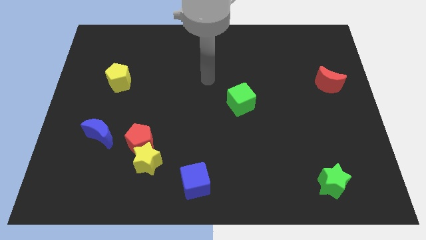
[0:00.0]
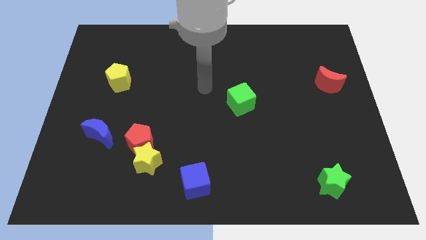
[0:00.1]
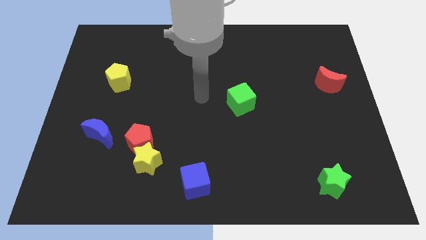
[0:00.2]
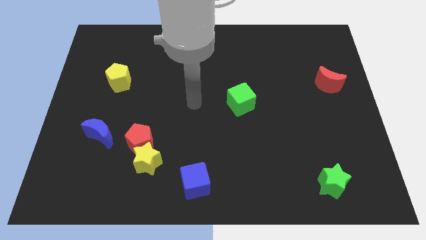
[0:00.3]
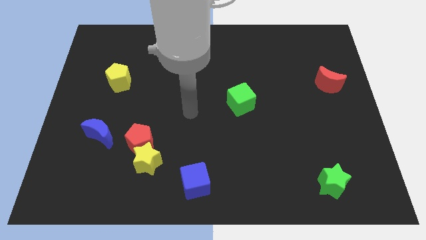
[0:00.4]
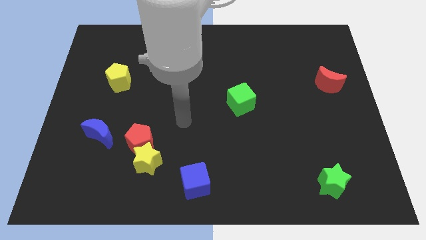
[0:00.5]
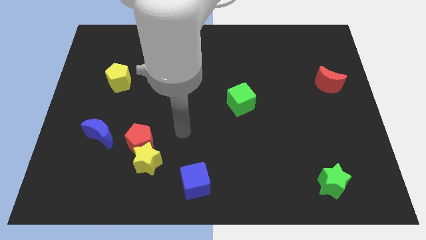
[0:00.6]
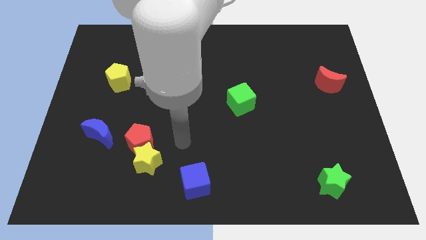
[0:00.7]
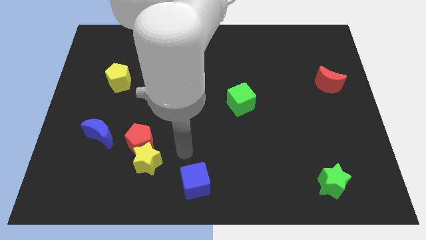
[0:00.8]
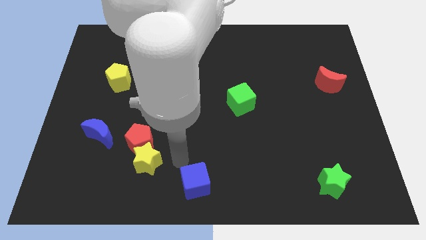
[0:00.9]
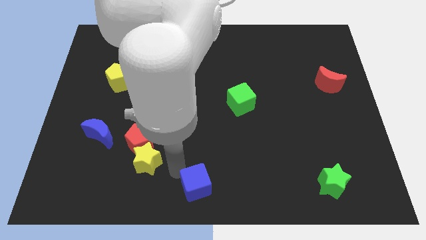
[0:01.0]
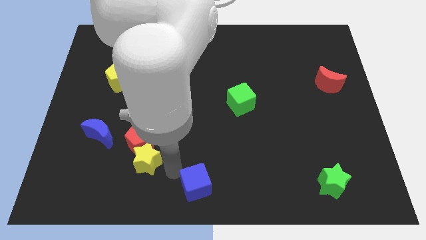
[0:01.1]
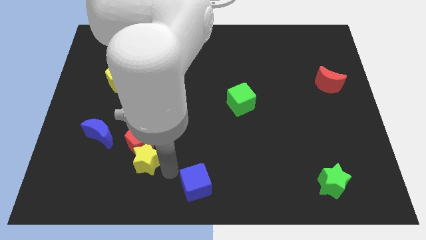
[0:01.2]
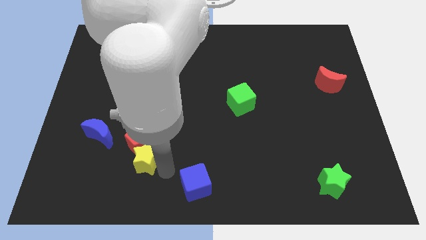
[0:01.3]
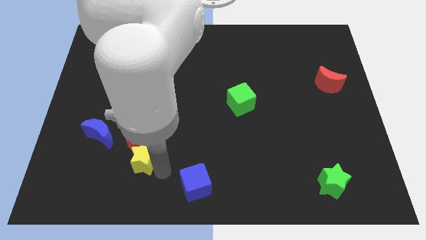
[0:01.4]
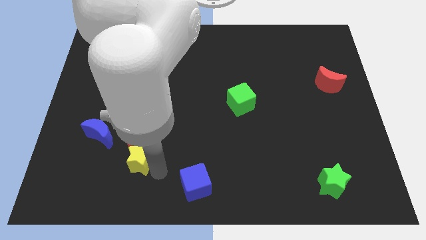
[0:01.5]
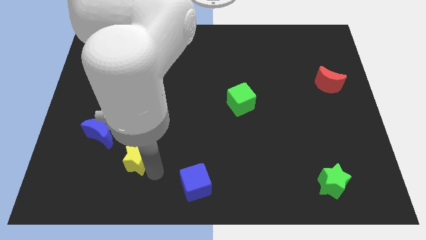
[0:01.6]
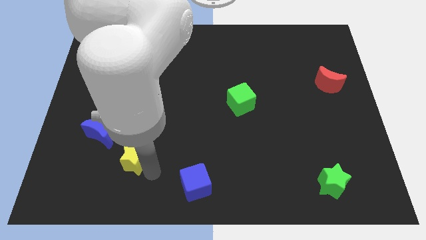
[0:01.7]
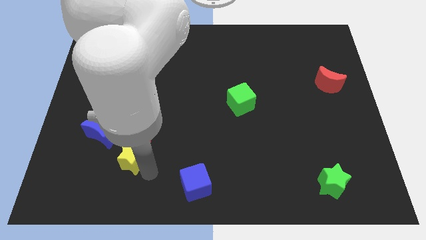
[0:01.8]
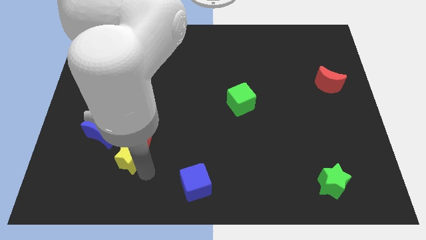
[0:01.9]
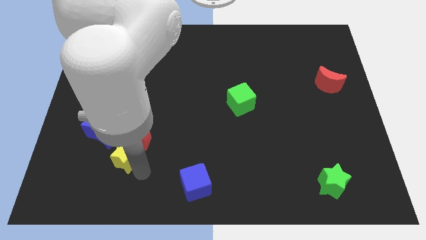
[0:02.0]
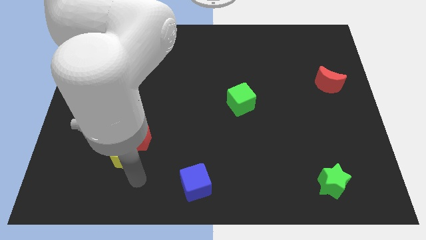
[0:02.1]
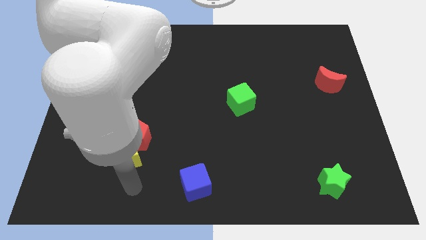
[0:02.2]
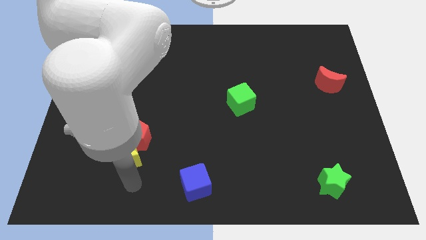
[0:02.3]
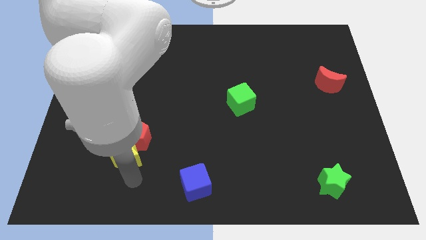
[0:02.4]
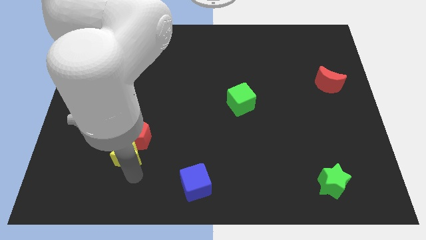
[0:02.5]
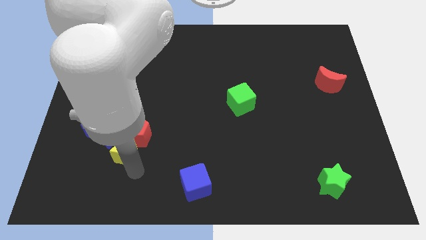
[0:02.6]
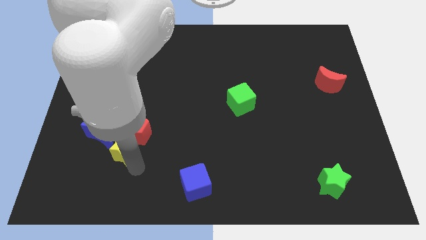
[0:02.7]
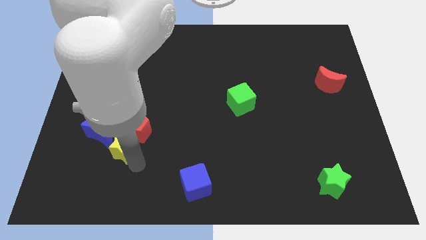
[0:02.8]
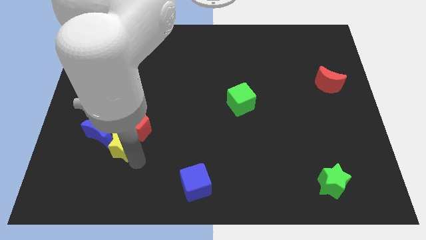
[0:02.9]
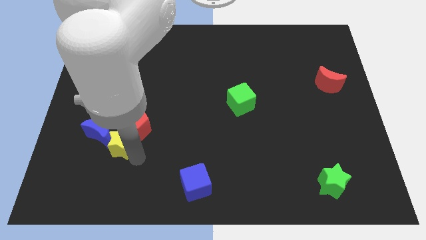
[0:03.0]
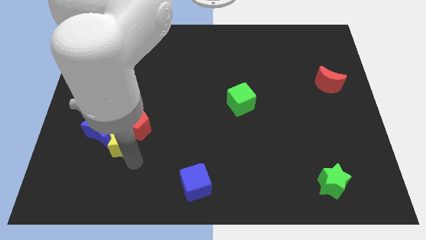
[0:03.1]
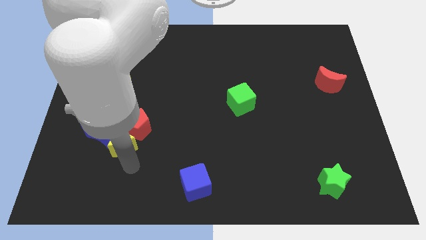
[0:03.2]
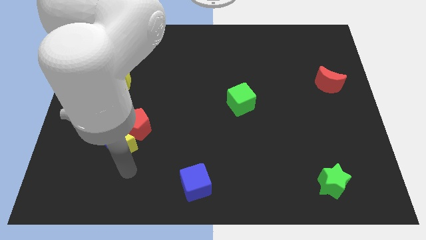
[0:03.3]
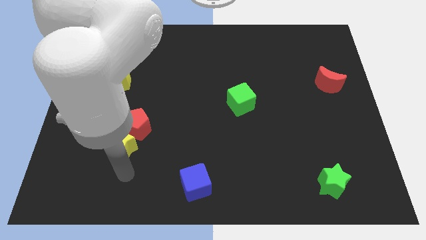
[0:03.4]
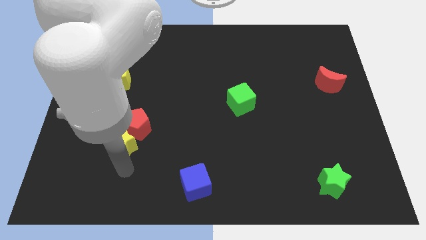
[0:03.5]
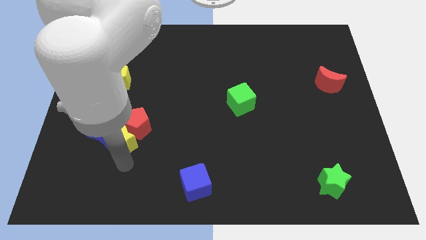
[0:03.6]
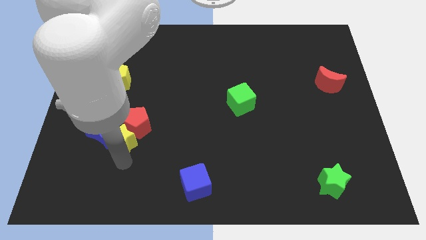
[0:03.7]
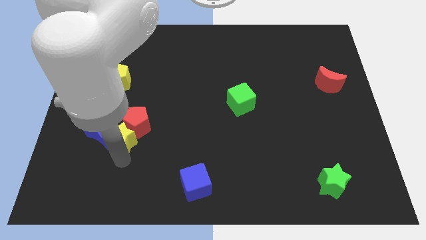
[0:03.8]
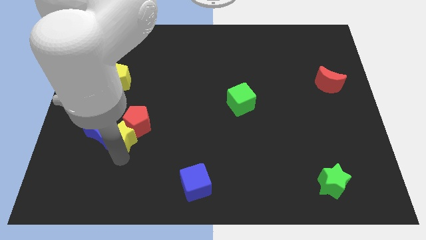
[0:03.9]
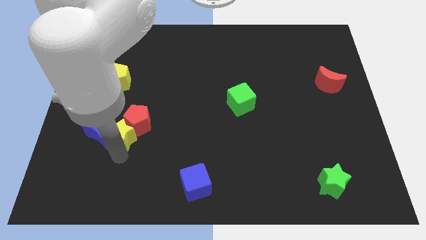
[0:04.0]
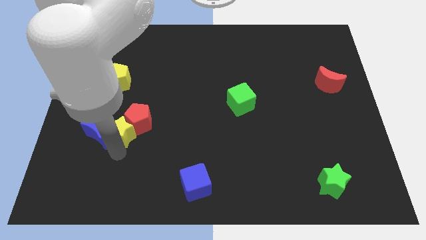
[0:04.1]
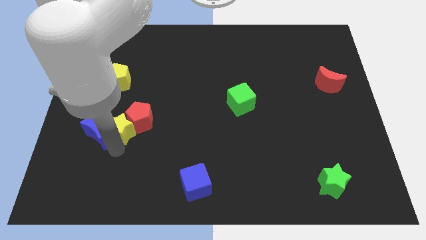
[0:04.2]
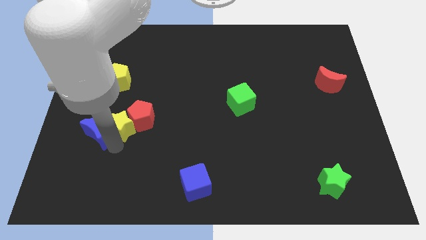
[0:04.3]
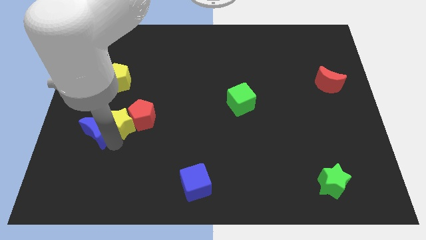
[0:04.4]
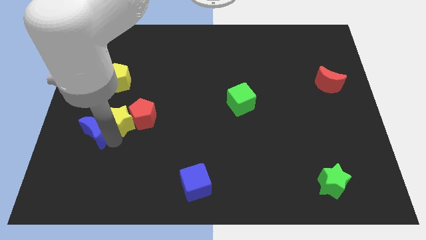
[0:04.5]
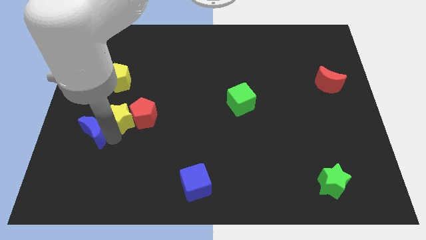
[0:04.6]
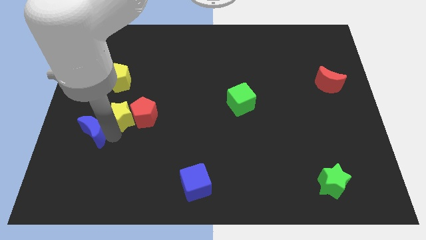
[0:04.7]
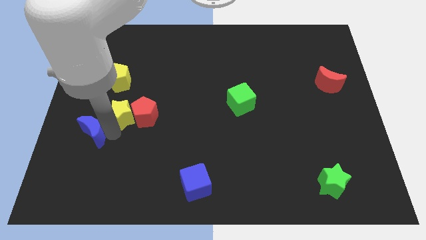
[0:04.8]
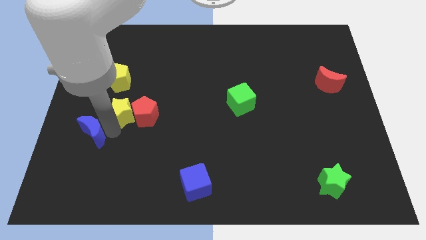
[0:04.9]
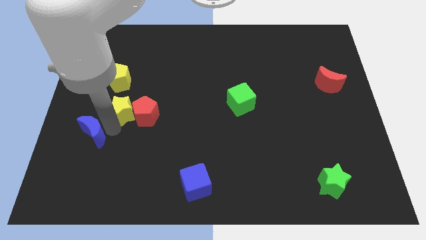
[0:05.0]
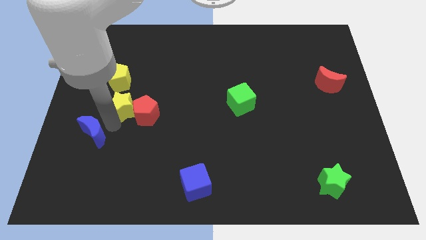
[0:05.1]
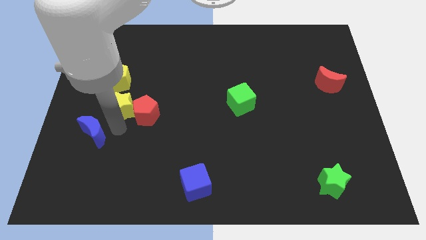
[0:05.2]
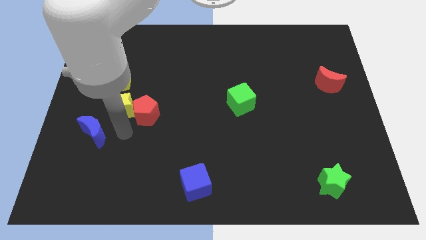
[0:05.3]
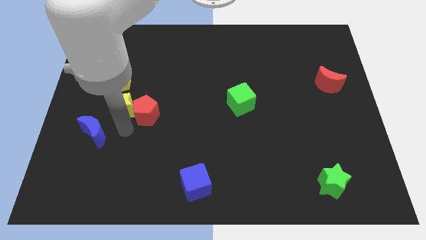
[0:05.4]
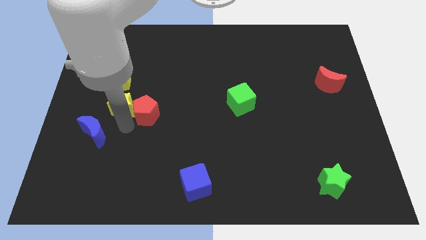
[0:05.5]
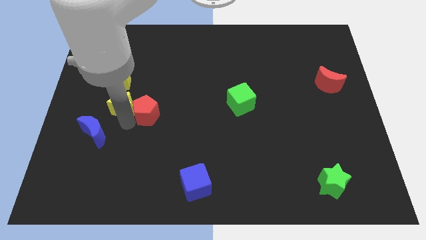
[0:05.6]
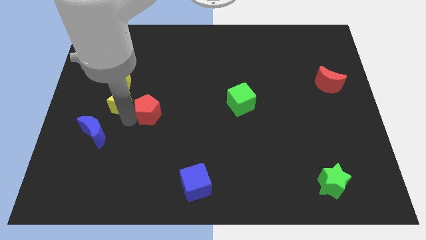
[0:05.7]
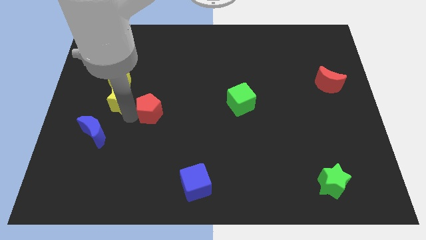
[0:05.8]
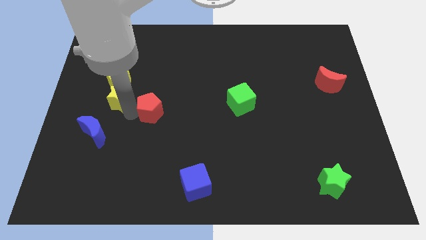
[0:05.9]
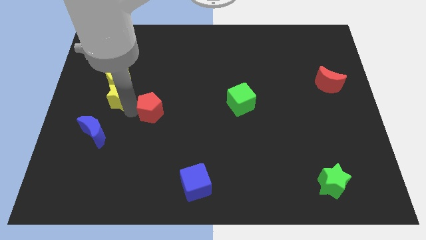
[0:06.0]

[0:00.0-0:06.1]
slide the yellow star towards the yellow pentagon

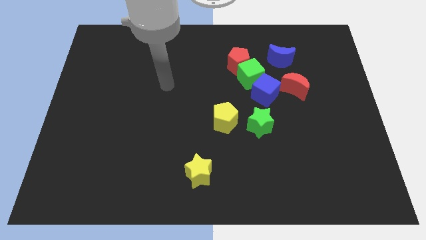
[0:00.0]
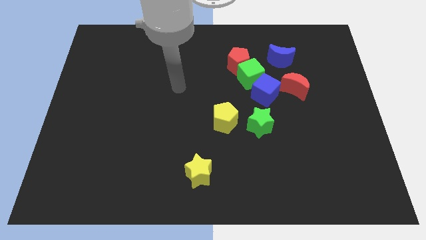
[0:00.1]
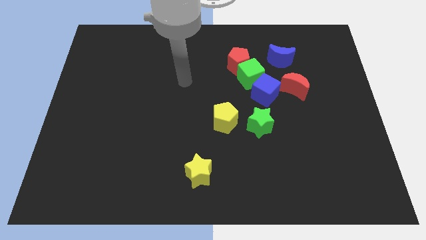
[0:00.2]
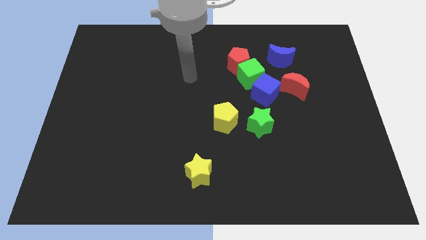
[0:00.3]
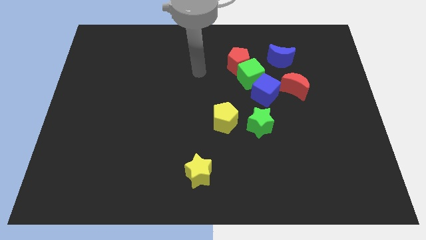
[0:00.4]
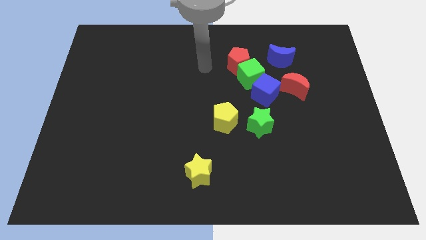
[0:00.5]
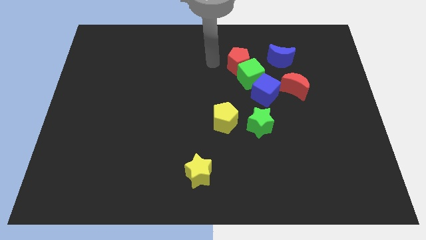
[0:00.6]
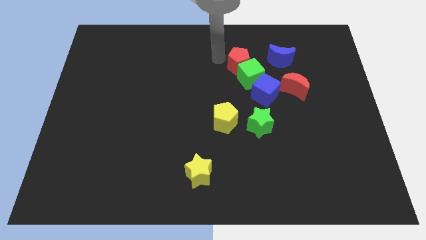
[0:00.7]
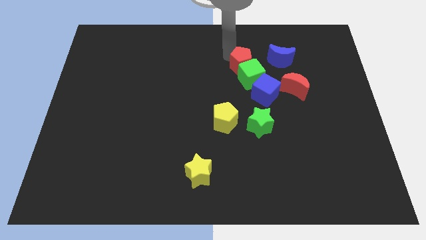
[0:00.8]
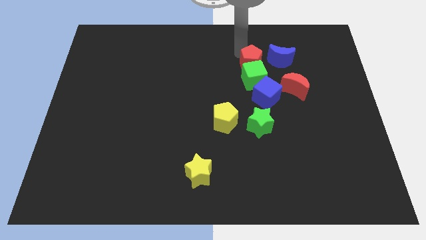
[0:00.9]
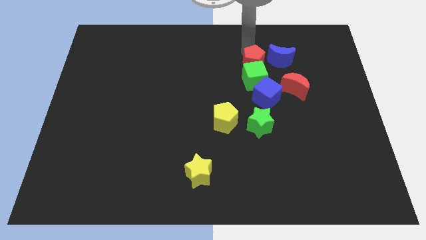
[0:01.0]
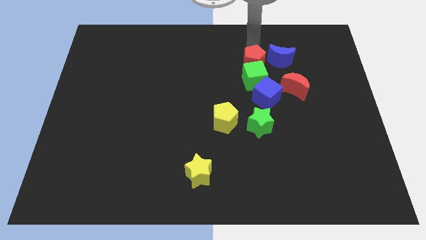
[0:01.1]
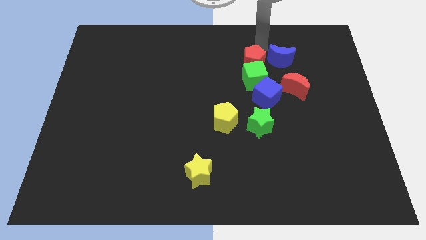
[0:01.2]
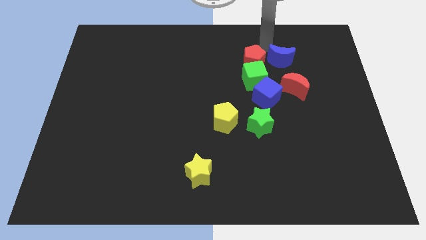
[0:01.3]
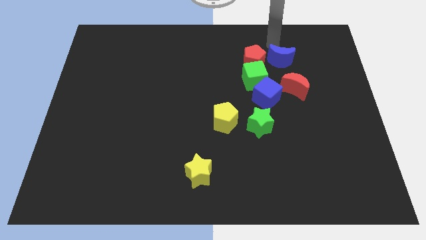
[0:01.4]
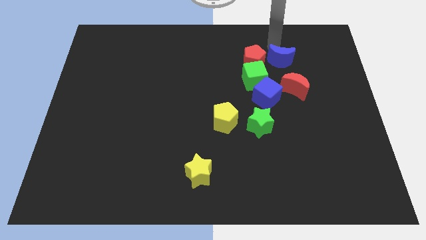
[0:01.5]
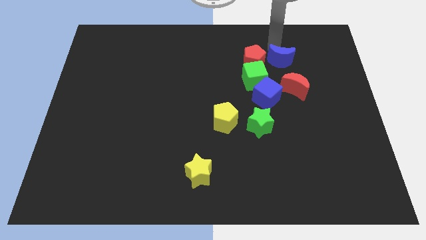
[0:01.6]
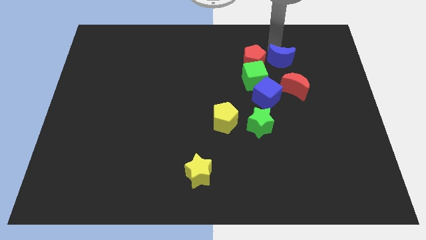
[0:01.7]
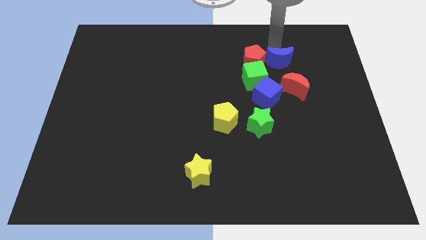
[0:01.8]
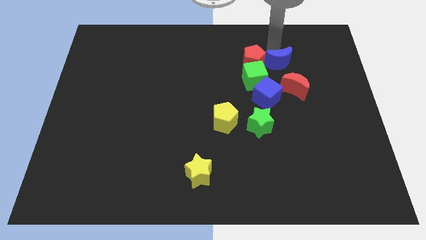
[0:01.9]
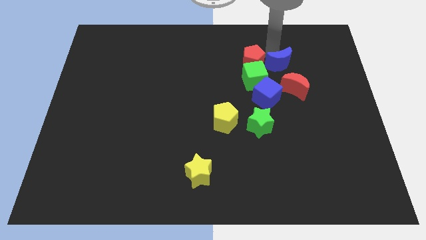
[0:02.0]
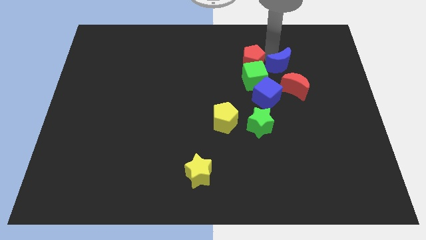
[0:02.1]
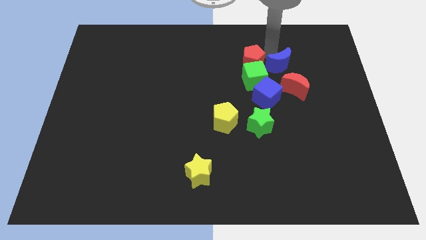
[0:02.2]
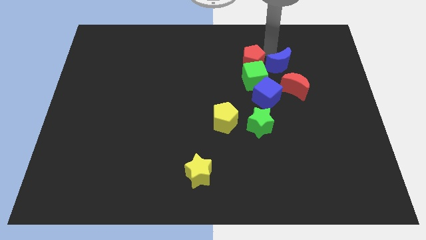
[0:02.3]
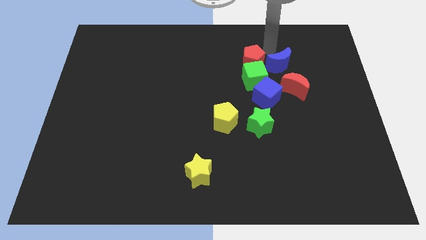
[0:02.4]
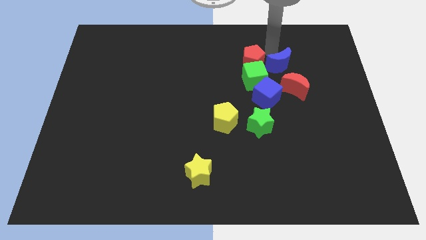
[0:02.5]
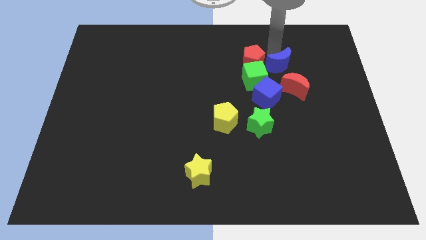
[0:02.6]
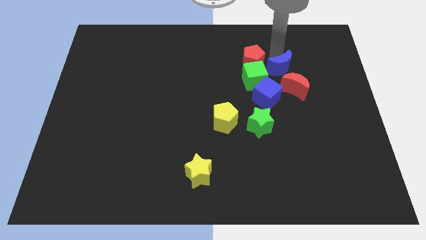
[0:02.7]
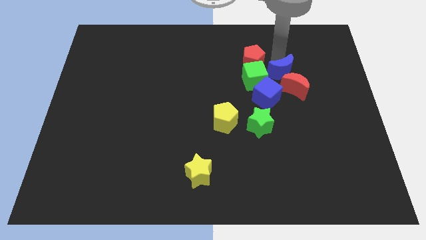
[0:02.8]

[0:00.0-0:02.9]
move the blue moon towards the red moon
